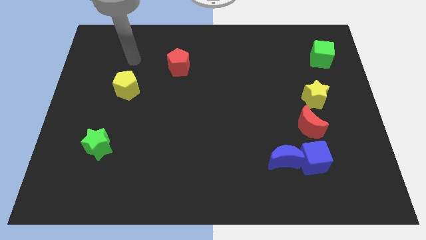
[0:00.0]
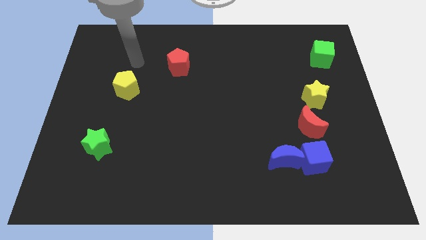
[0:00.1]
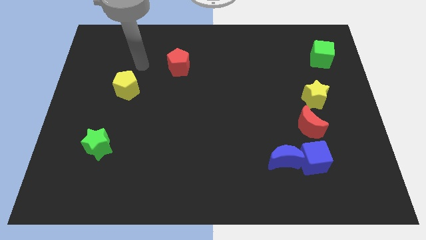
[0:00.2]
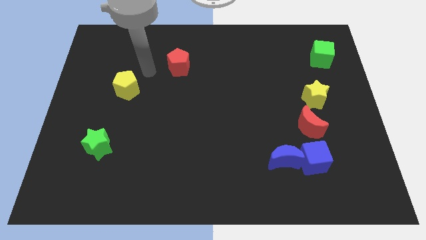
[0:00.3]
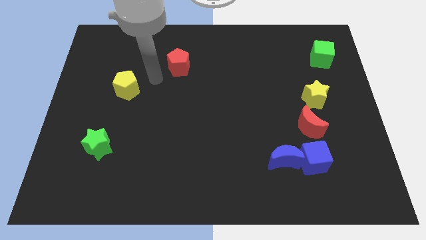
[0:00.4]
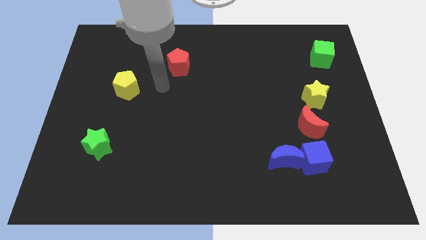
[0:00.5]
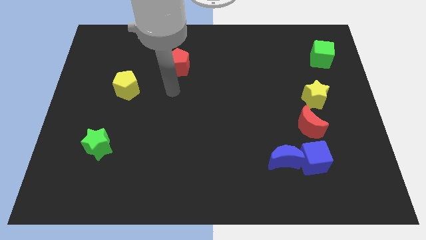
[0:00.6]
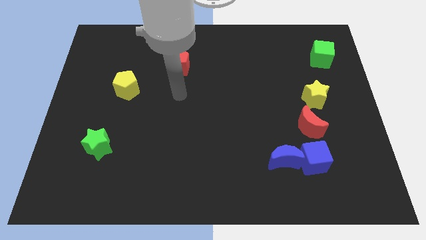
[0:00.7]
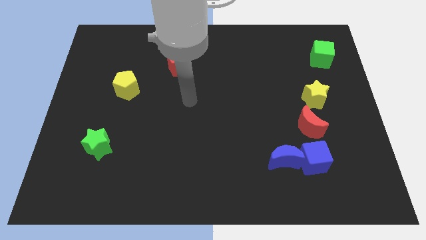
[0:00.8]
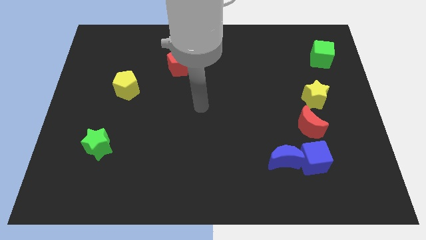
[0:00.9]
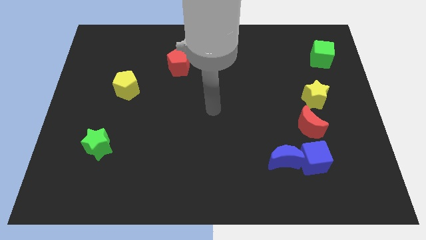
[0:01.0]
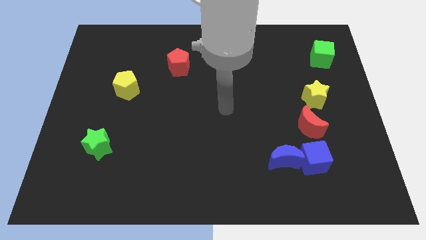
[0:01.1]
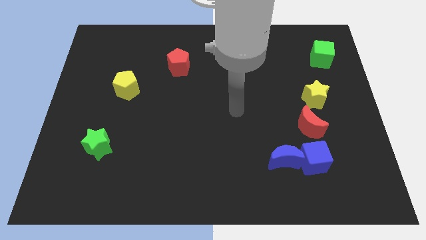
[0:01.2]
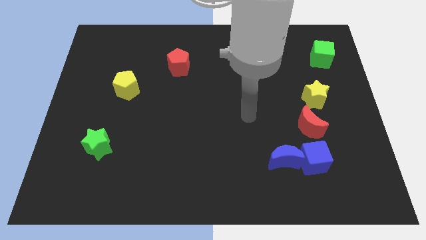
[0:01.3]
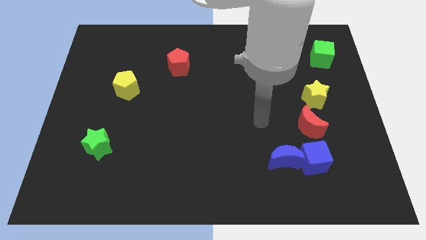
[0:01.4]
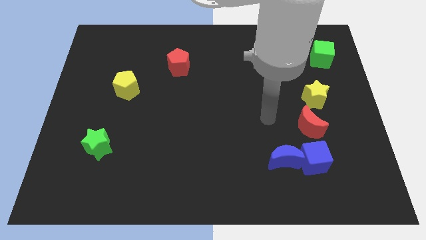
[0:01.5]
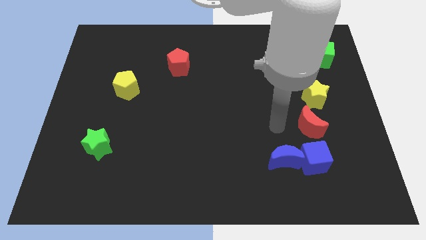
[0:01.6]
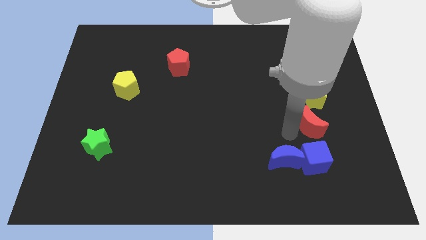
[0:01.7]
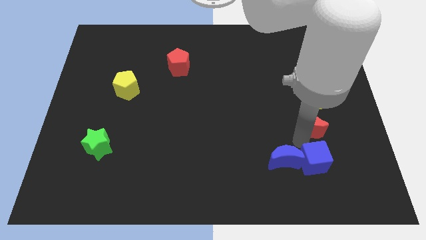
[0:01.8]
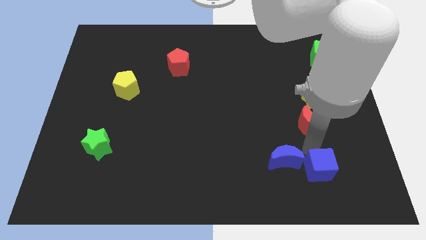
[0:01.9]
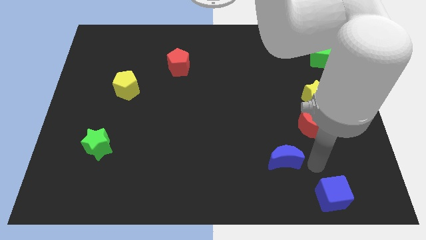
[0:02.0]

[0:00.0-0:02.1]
pull the blue moon apart from the blue cube

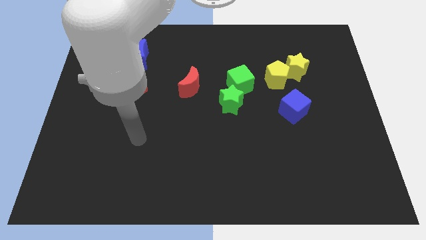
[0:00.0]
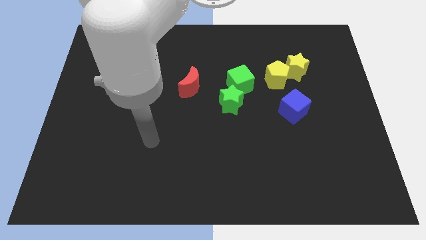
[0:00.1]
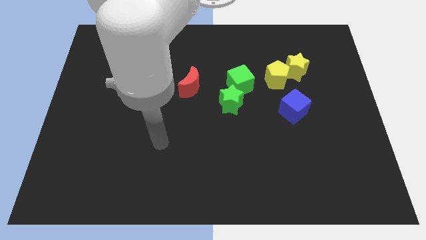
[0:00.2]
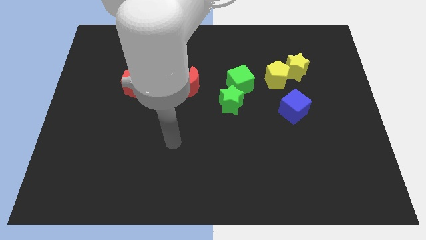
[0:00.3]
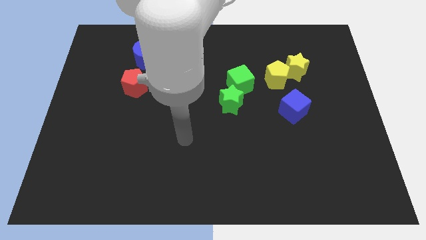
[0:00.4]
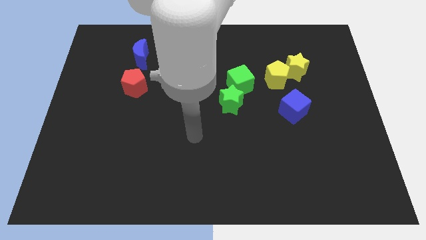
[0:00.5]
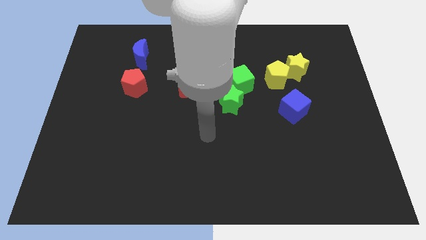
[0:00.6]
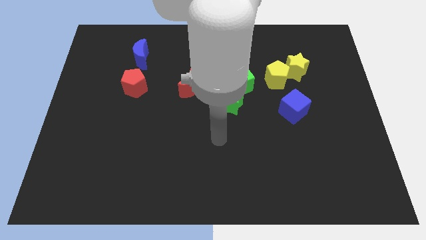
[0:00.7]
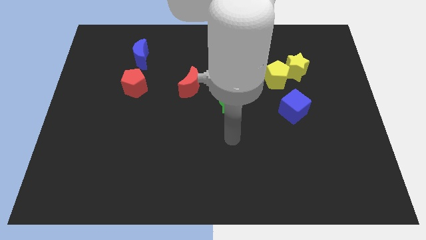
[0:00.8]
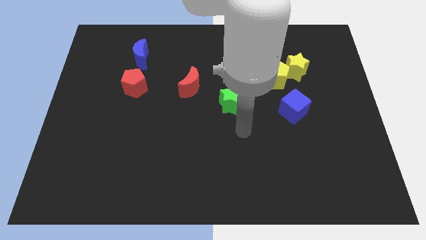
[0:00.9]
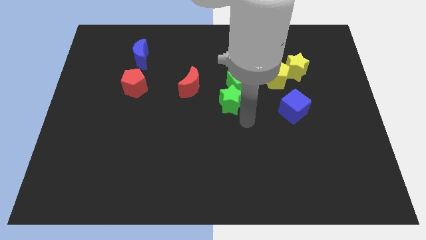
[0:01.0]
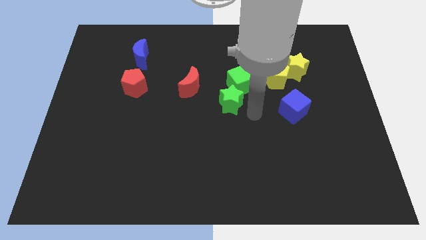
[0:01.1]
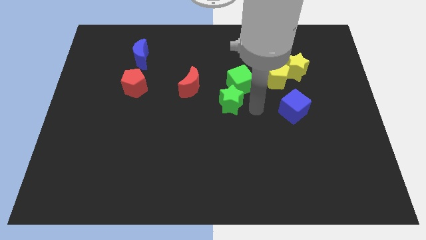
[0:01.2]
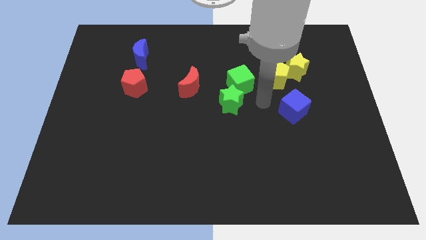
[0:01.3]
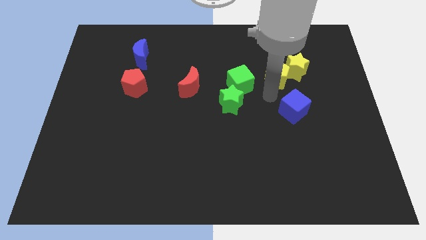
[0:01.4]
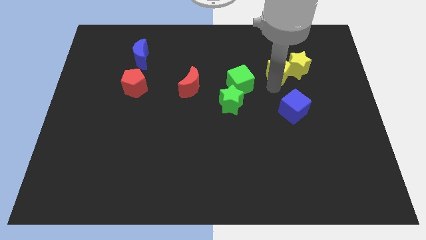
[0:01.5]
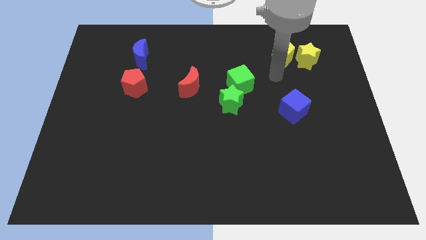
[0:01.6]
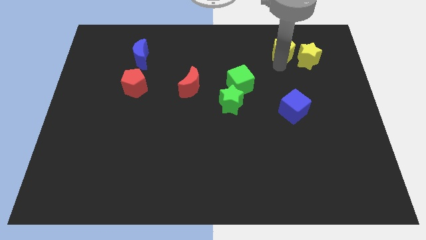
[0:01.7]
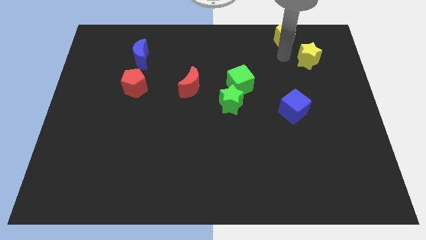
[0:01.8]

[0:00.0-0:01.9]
separate the yellow star from the yellow pentagon

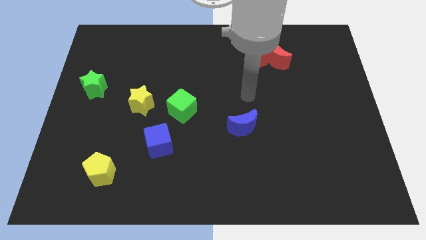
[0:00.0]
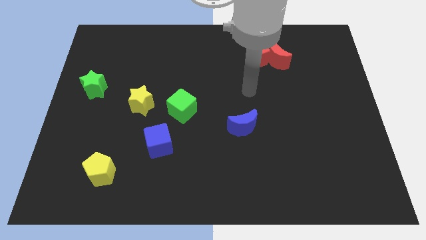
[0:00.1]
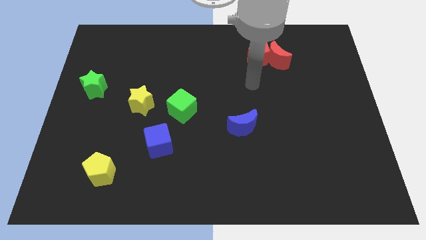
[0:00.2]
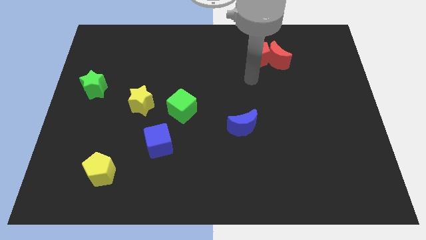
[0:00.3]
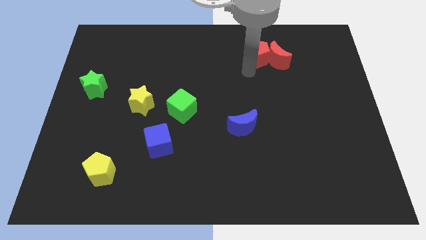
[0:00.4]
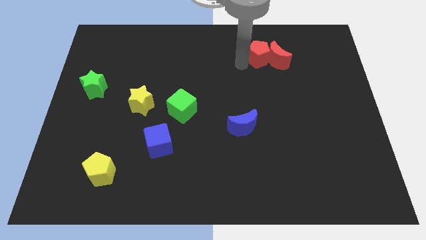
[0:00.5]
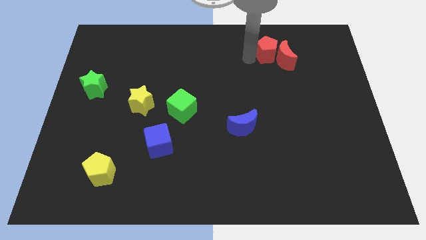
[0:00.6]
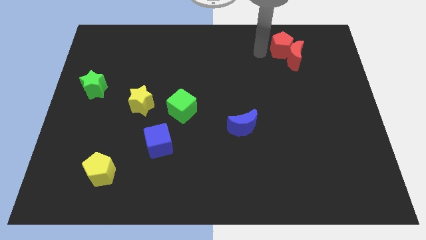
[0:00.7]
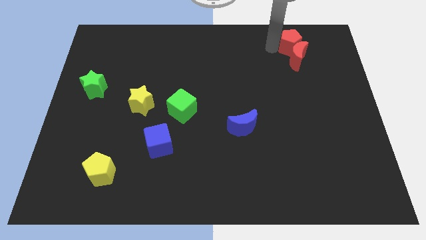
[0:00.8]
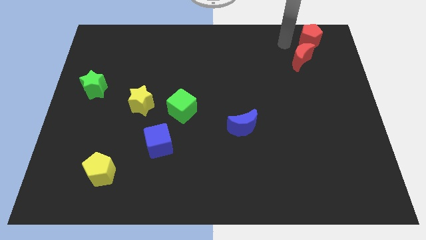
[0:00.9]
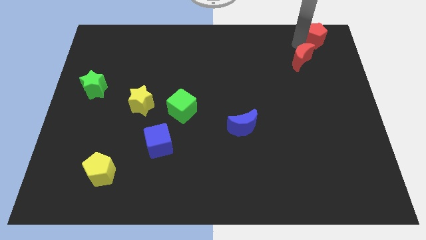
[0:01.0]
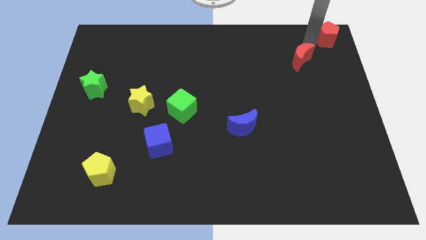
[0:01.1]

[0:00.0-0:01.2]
separate the red moon from the red pentagon

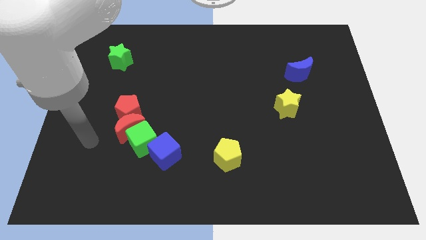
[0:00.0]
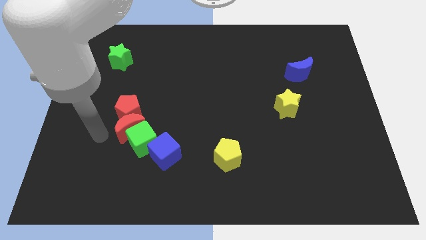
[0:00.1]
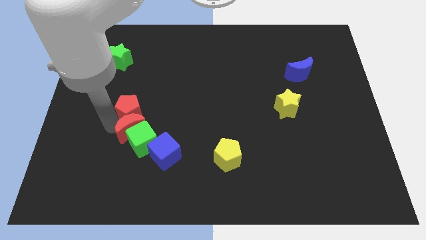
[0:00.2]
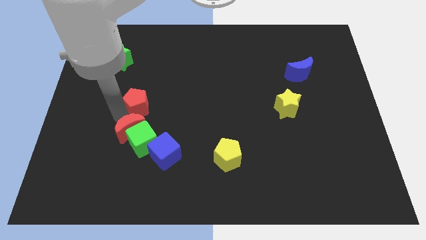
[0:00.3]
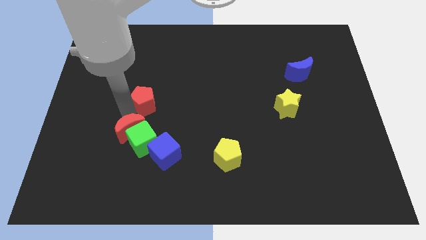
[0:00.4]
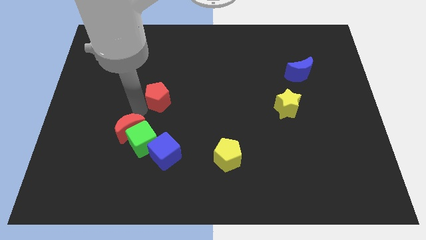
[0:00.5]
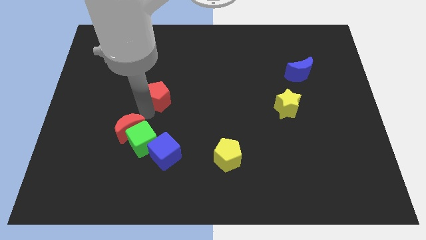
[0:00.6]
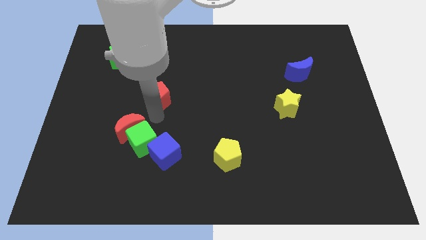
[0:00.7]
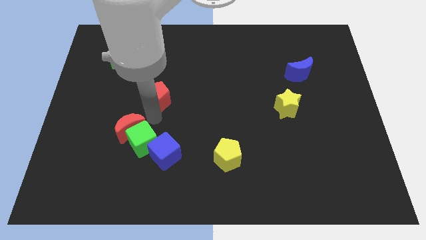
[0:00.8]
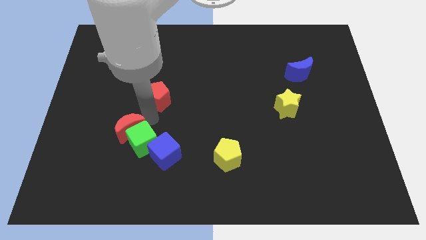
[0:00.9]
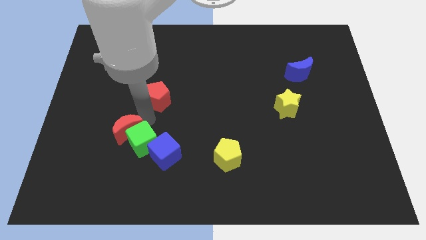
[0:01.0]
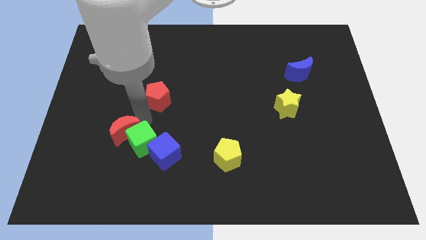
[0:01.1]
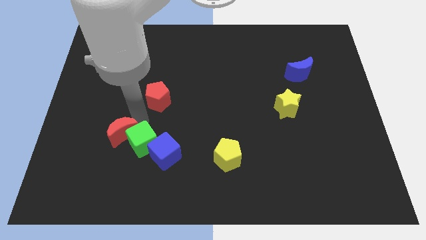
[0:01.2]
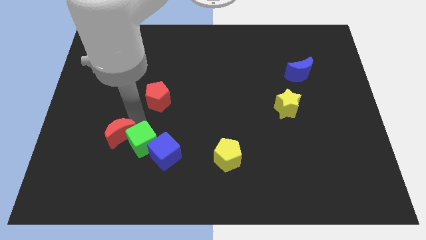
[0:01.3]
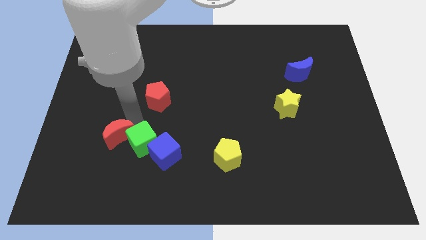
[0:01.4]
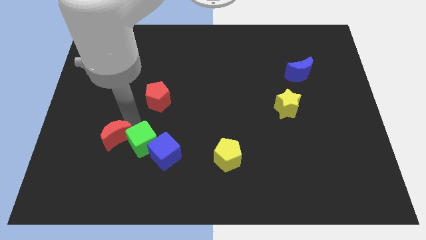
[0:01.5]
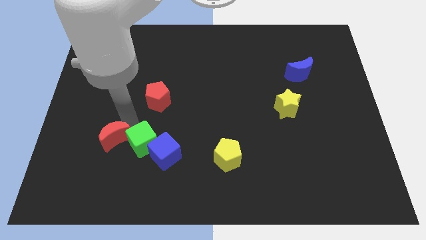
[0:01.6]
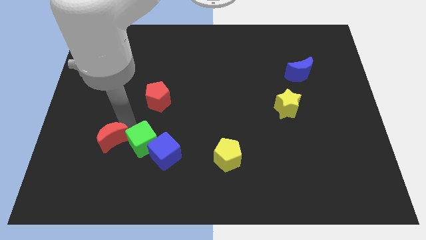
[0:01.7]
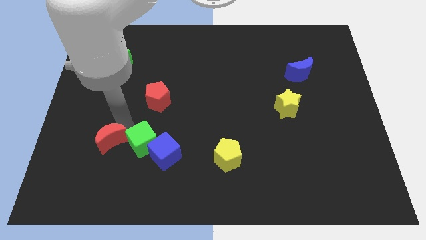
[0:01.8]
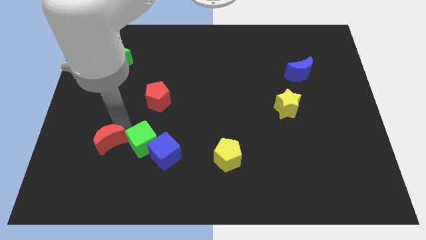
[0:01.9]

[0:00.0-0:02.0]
separate the red moon from the green cube and red pentagon

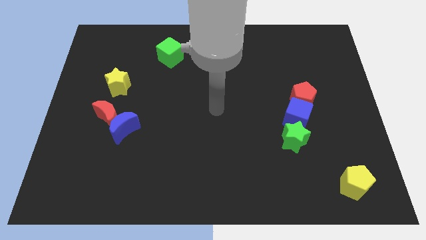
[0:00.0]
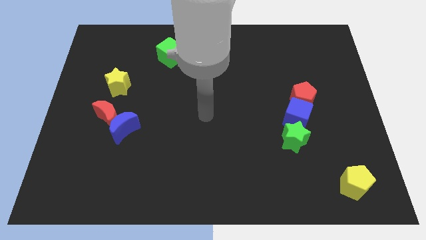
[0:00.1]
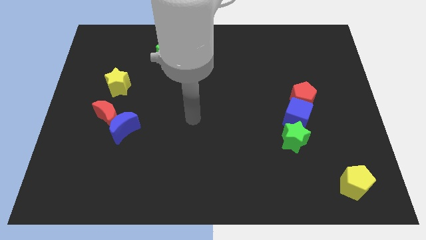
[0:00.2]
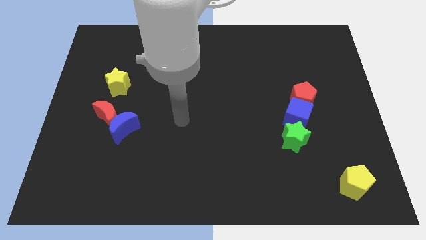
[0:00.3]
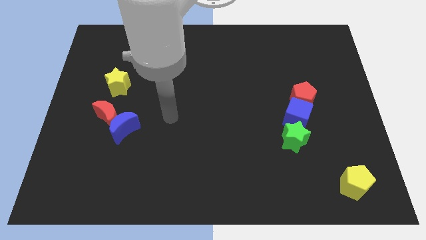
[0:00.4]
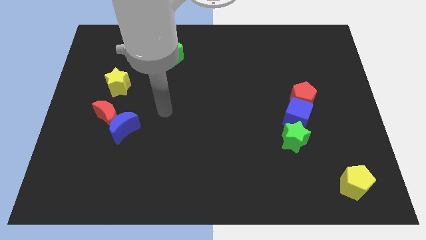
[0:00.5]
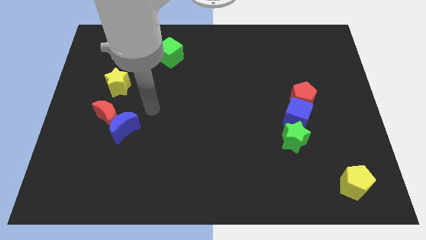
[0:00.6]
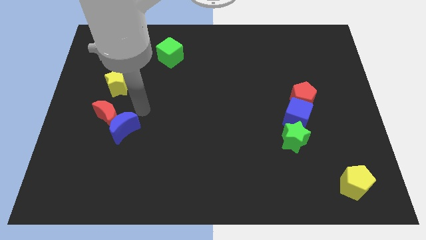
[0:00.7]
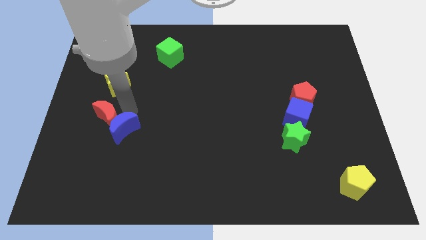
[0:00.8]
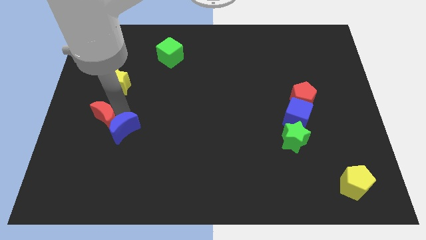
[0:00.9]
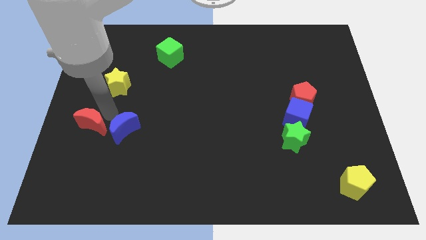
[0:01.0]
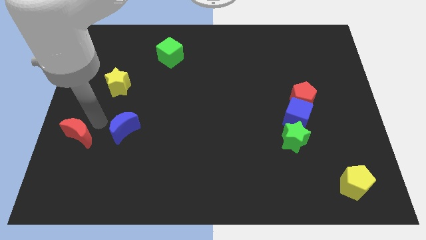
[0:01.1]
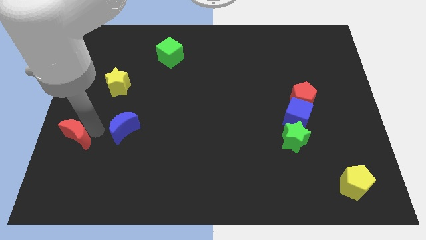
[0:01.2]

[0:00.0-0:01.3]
pull the blue moon apart from the red moon

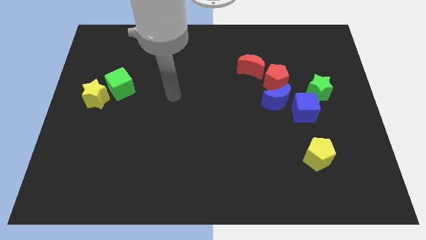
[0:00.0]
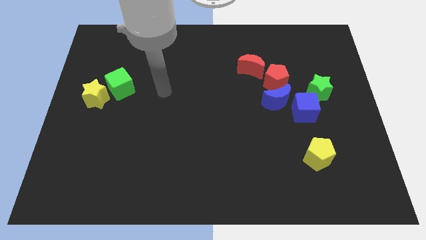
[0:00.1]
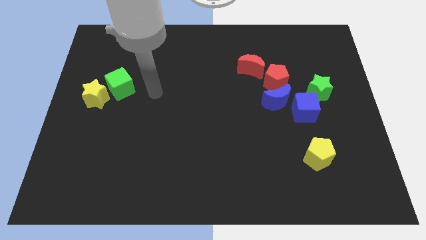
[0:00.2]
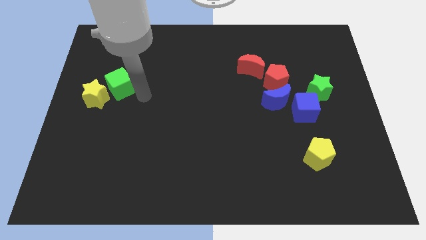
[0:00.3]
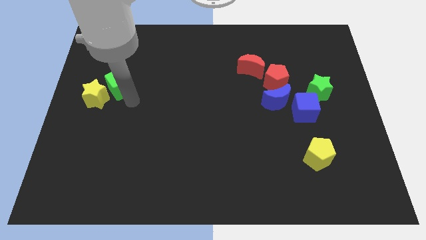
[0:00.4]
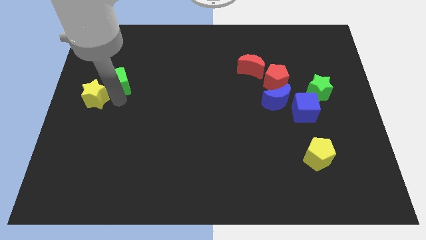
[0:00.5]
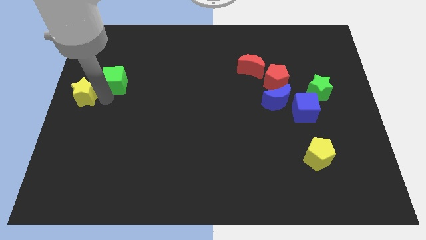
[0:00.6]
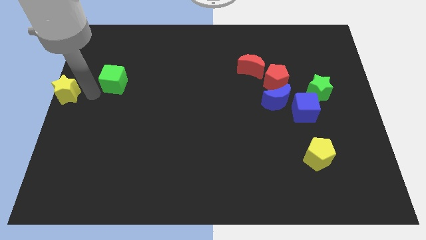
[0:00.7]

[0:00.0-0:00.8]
pull the green cube apart from the yellow star
